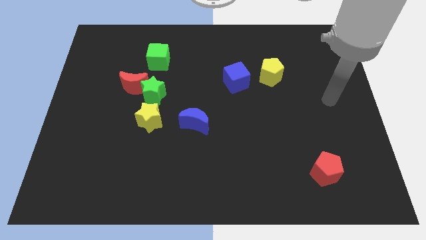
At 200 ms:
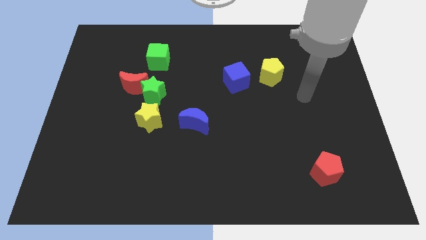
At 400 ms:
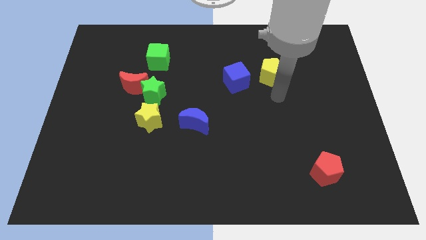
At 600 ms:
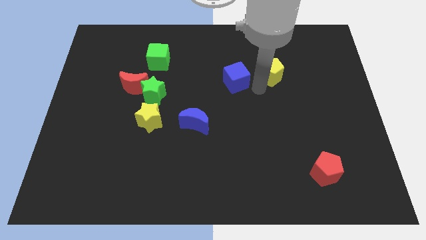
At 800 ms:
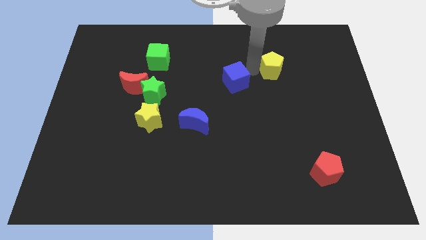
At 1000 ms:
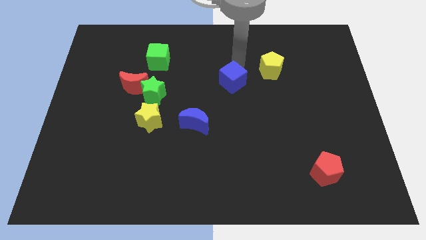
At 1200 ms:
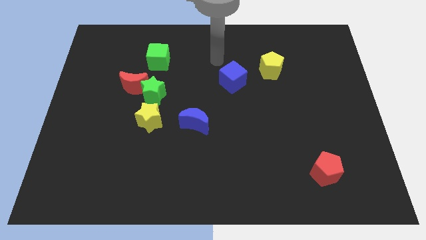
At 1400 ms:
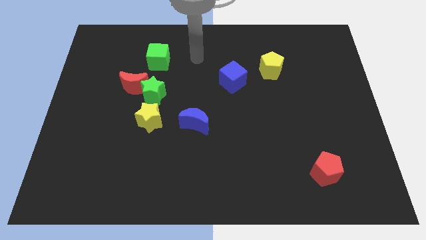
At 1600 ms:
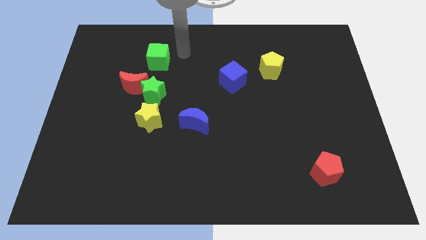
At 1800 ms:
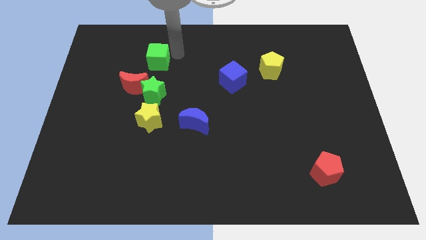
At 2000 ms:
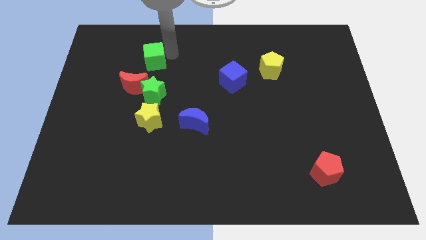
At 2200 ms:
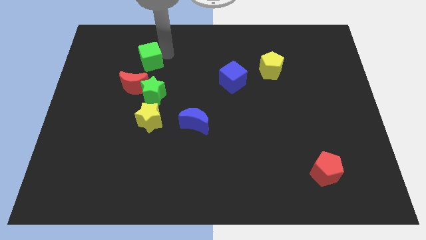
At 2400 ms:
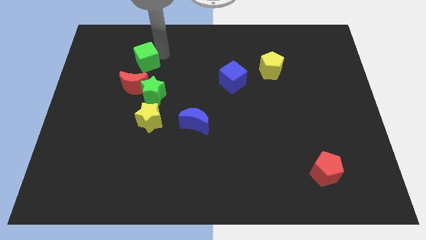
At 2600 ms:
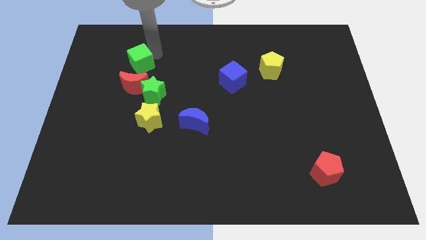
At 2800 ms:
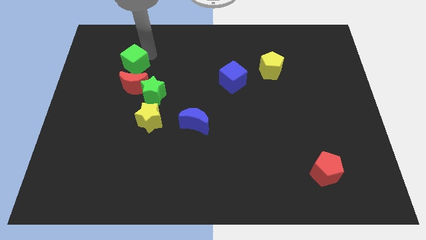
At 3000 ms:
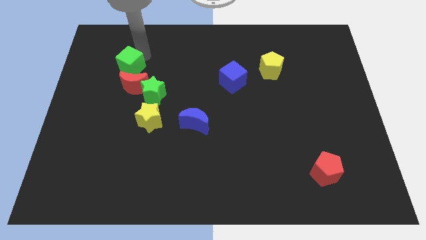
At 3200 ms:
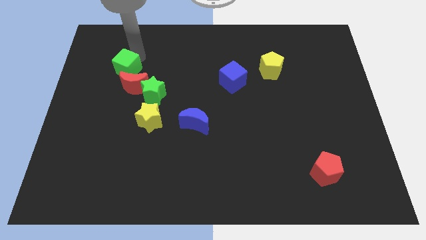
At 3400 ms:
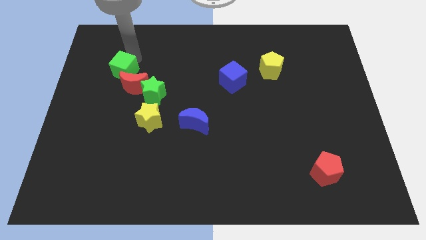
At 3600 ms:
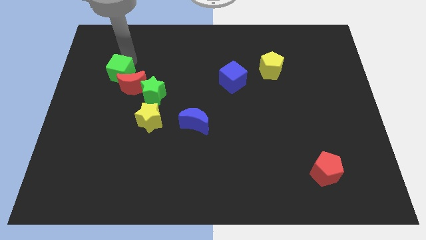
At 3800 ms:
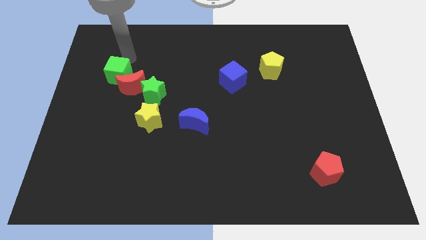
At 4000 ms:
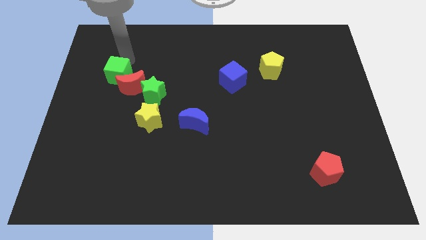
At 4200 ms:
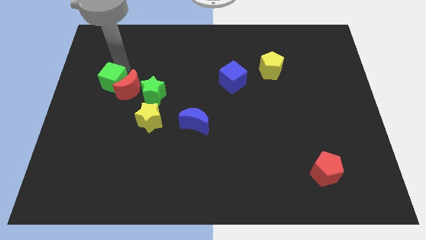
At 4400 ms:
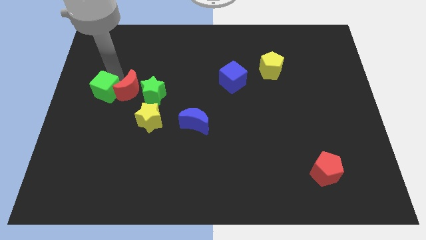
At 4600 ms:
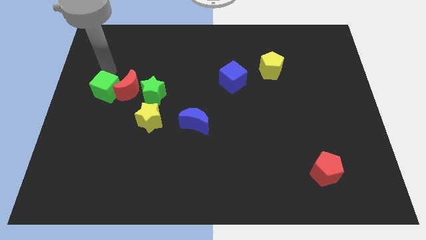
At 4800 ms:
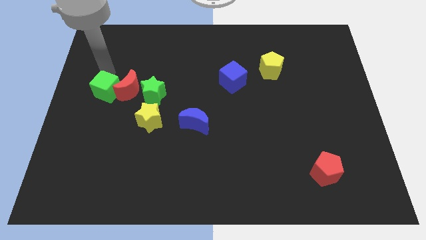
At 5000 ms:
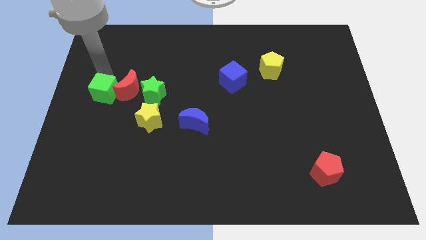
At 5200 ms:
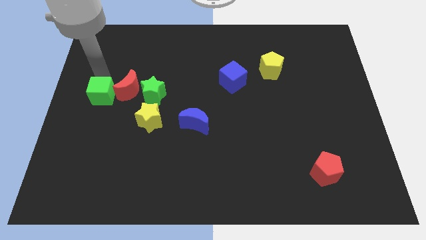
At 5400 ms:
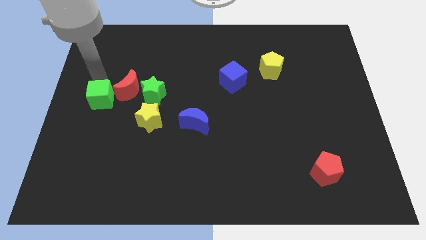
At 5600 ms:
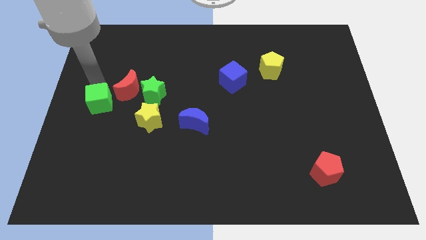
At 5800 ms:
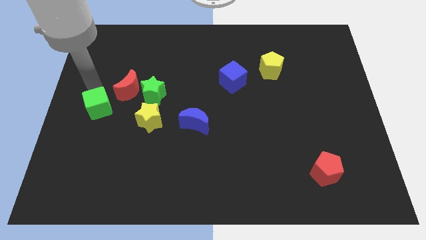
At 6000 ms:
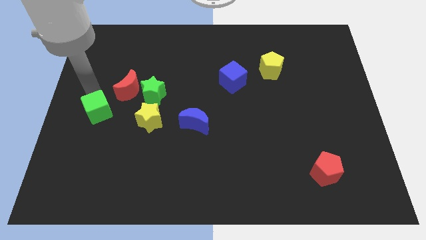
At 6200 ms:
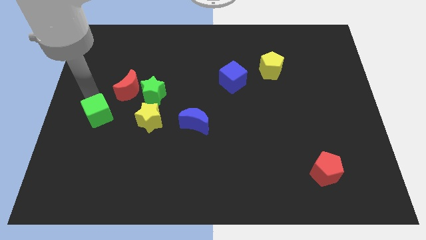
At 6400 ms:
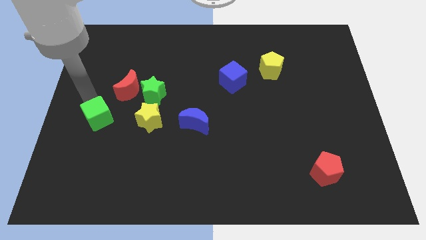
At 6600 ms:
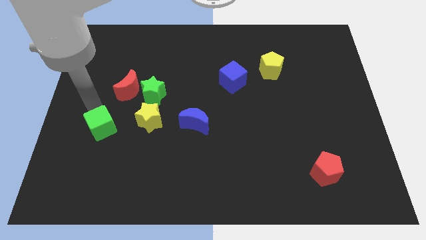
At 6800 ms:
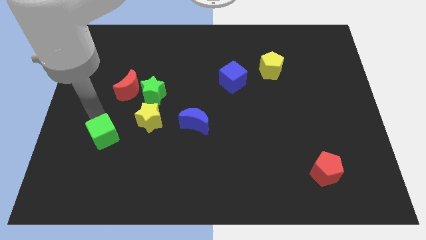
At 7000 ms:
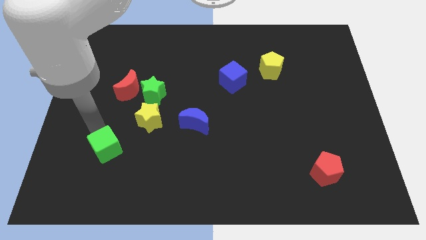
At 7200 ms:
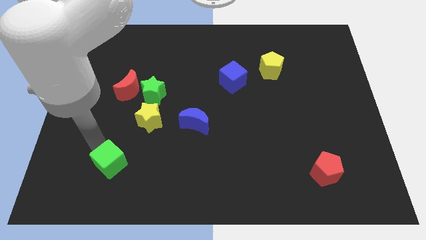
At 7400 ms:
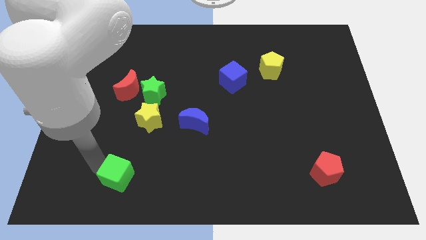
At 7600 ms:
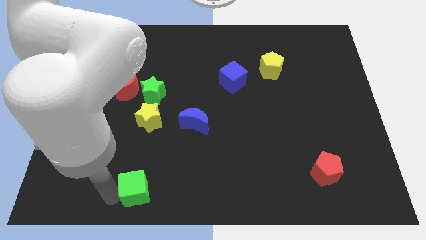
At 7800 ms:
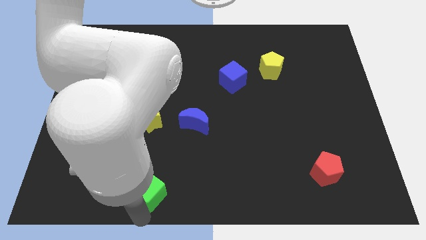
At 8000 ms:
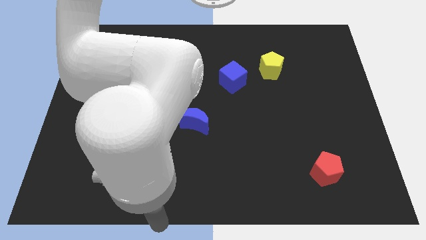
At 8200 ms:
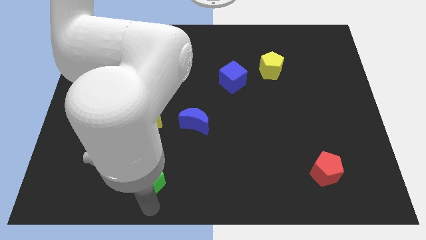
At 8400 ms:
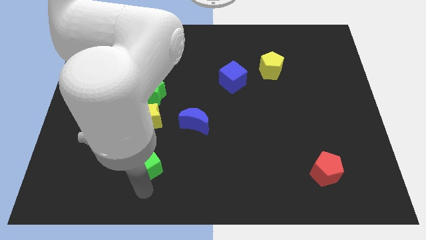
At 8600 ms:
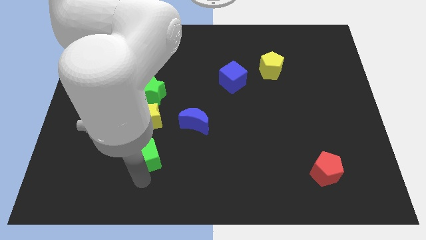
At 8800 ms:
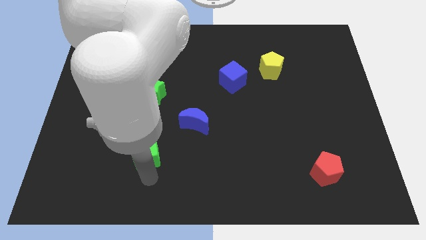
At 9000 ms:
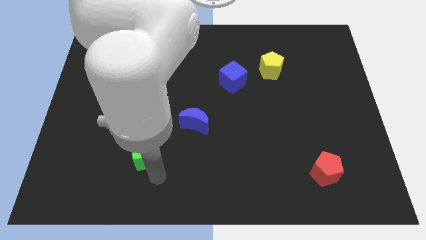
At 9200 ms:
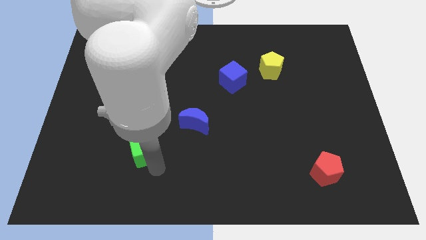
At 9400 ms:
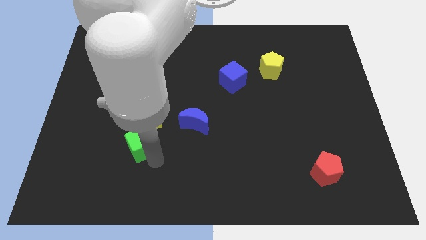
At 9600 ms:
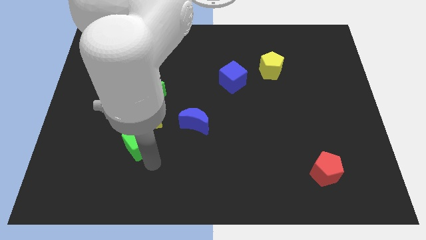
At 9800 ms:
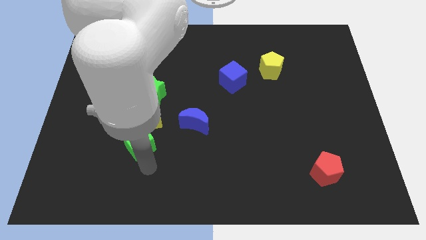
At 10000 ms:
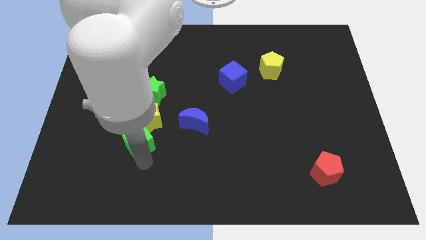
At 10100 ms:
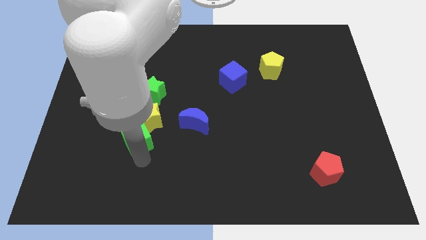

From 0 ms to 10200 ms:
move the green cube left of the blue moon

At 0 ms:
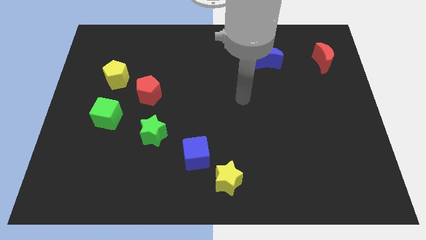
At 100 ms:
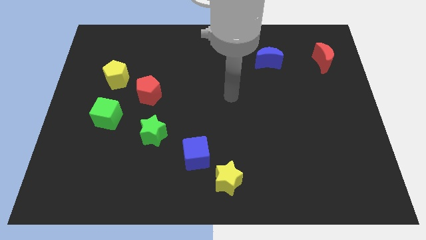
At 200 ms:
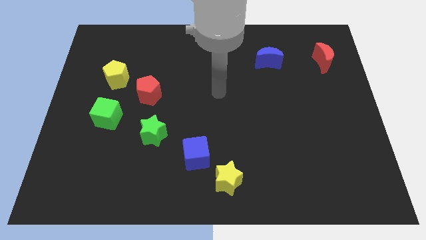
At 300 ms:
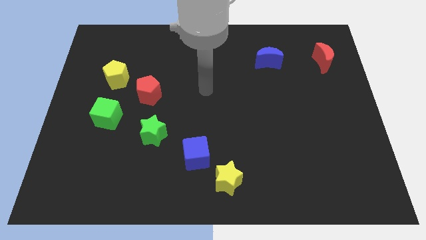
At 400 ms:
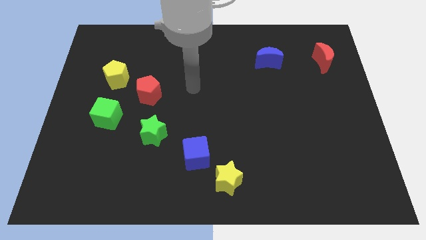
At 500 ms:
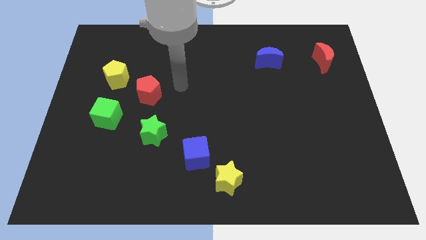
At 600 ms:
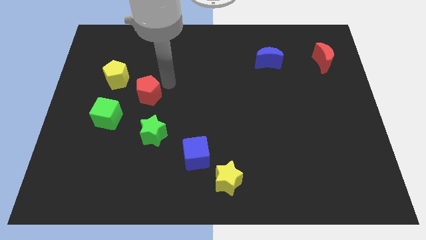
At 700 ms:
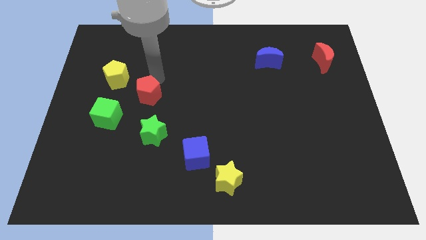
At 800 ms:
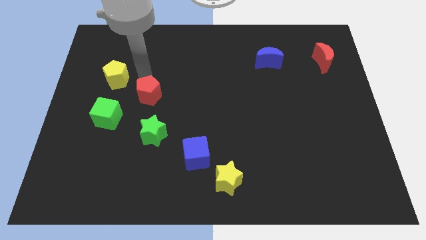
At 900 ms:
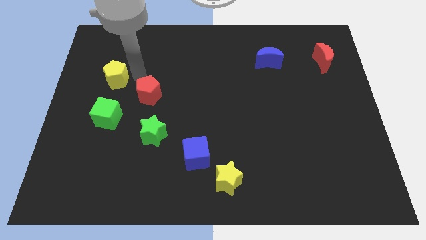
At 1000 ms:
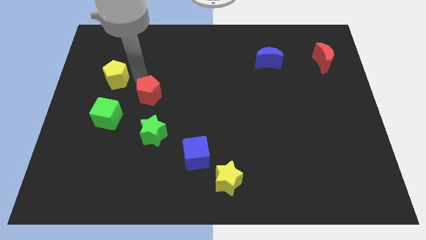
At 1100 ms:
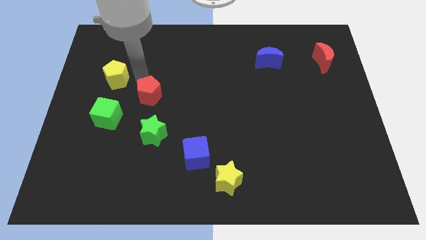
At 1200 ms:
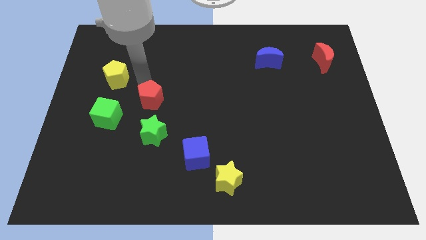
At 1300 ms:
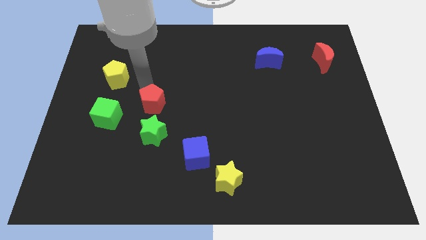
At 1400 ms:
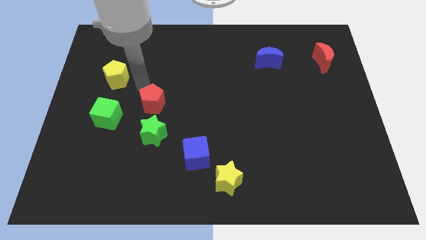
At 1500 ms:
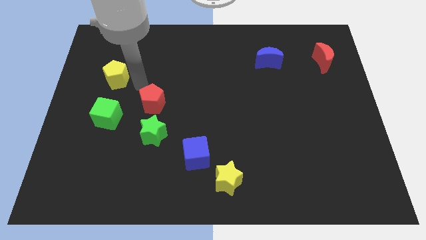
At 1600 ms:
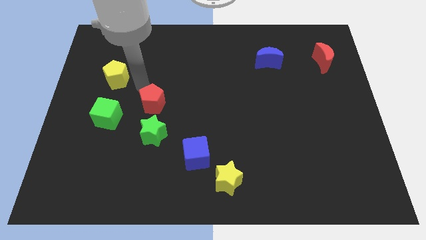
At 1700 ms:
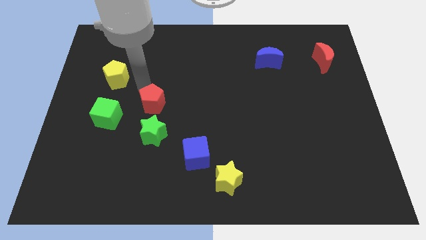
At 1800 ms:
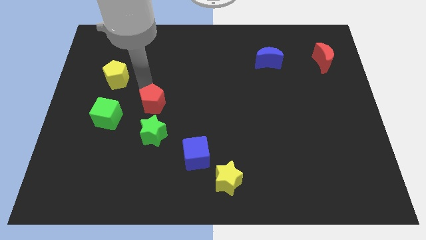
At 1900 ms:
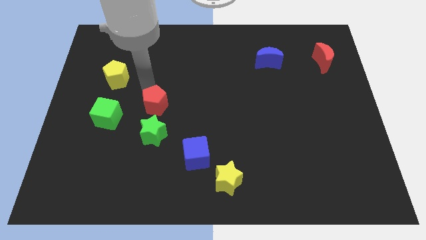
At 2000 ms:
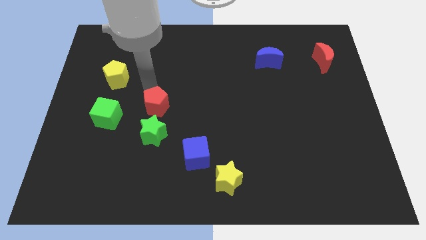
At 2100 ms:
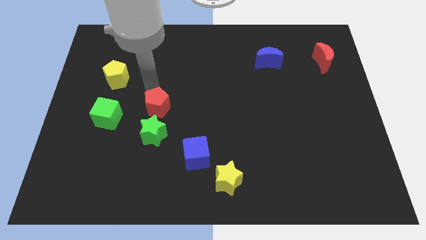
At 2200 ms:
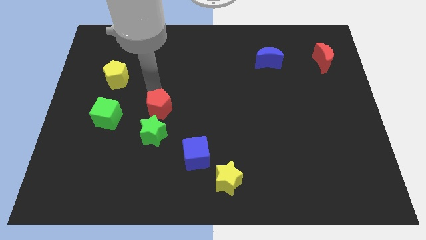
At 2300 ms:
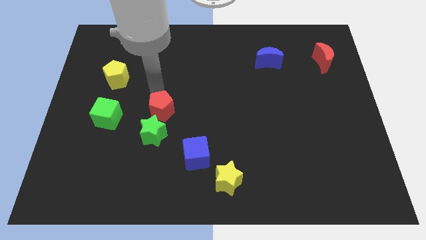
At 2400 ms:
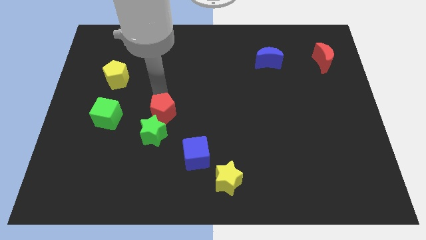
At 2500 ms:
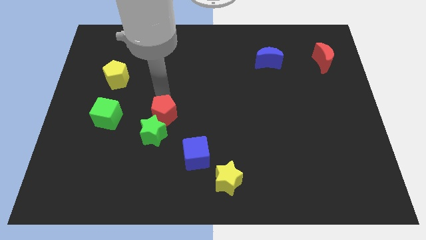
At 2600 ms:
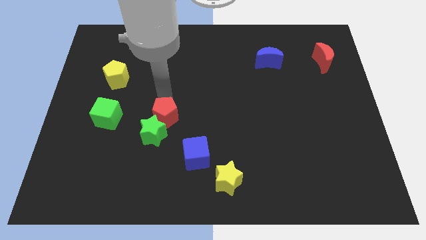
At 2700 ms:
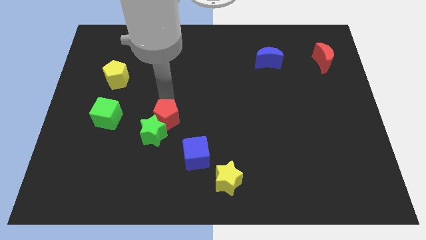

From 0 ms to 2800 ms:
move the red pentagon diagonally up and to the left of the blue cube

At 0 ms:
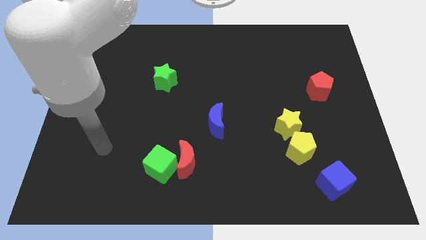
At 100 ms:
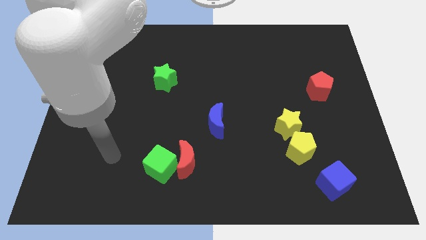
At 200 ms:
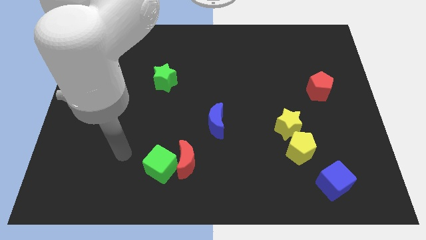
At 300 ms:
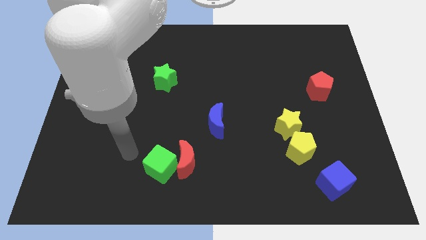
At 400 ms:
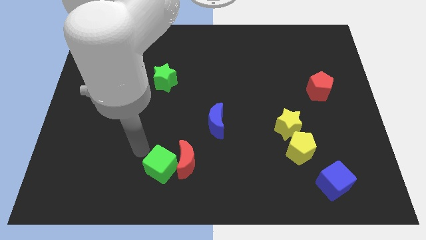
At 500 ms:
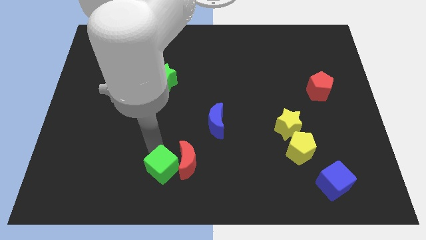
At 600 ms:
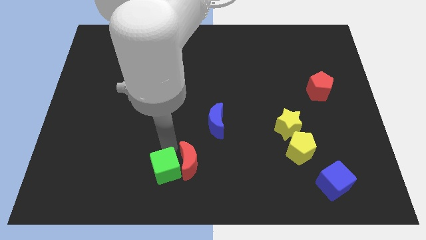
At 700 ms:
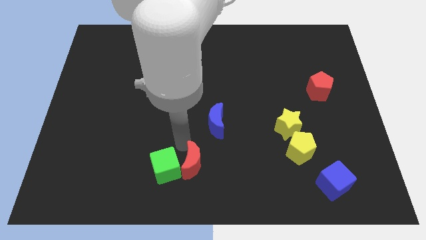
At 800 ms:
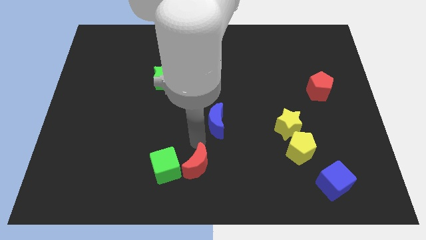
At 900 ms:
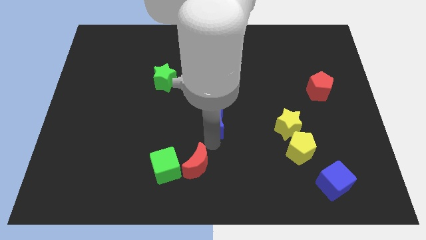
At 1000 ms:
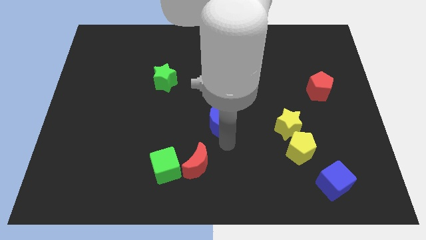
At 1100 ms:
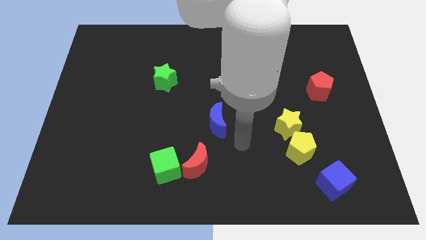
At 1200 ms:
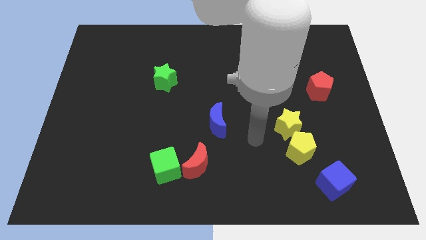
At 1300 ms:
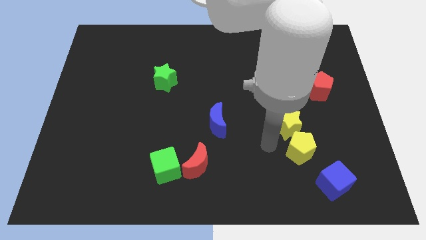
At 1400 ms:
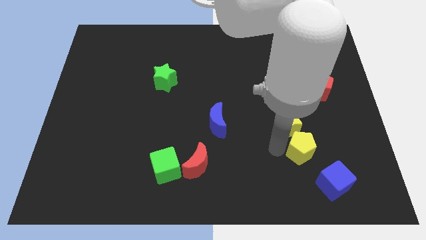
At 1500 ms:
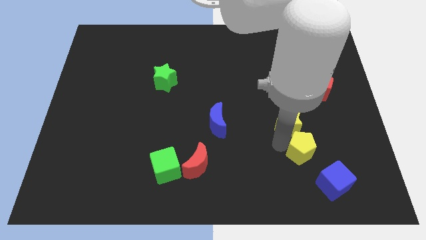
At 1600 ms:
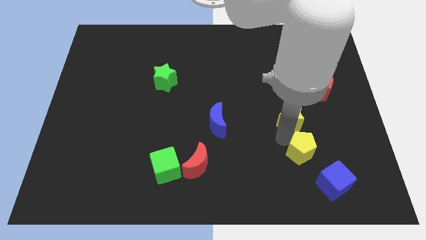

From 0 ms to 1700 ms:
slide the yellow star to the bottom left of the red pentagon
